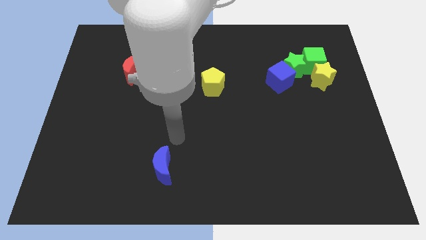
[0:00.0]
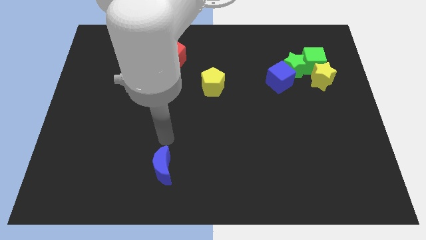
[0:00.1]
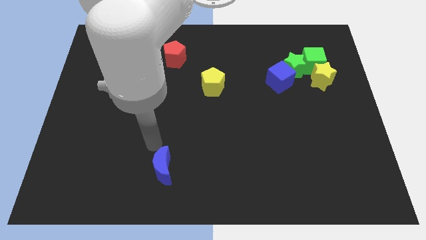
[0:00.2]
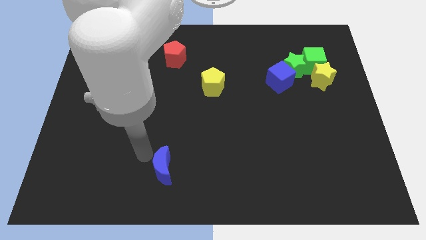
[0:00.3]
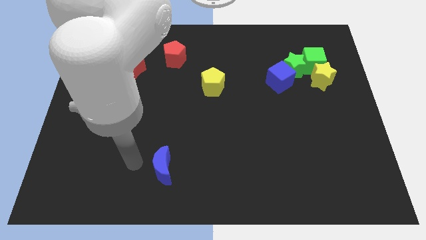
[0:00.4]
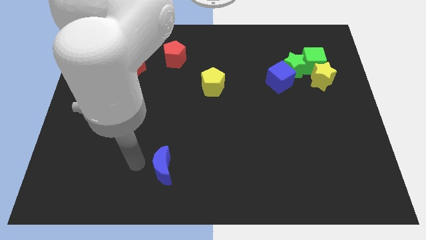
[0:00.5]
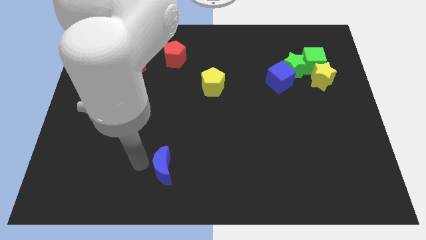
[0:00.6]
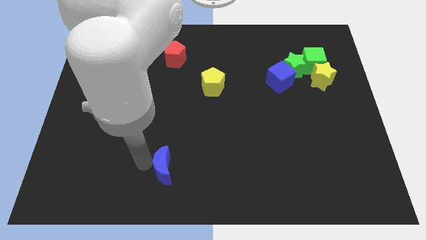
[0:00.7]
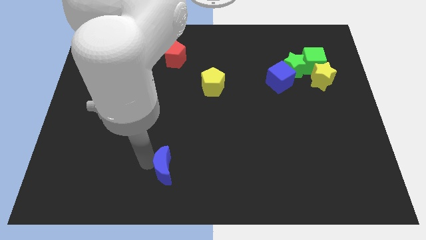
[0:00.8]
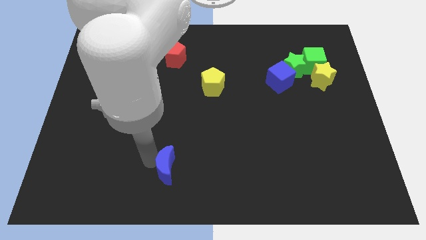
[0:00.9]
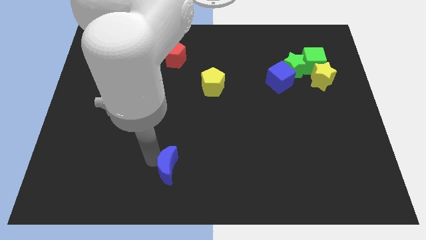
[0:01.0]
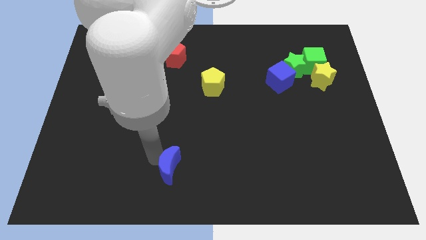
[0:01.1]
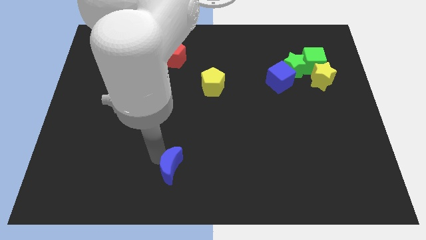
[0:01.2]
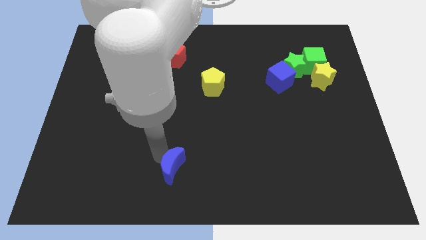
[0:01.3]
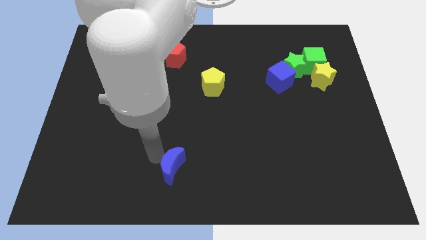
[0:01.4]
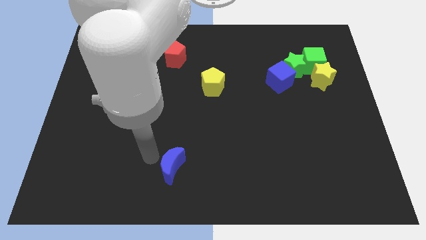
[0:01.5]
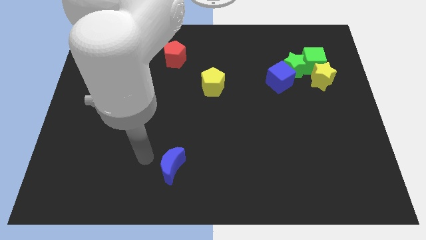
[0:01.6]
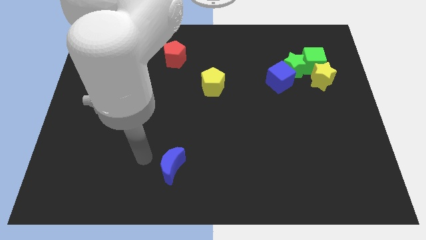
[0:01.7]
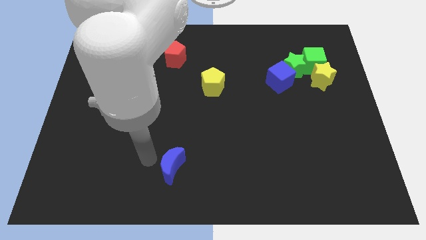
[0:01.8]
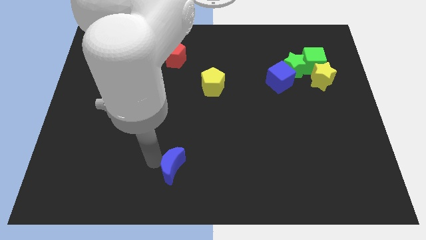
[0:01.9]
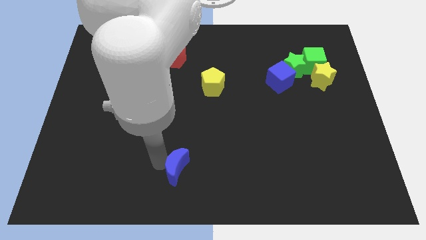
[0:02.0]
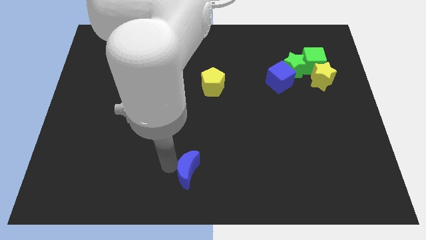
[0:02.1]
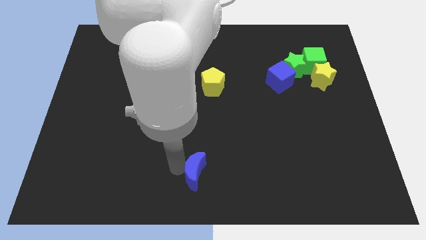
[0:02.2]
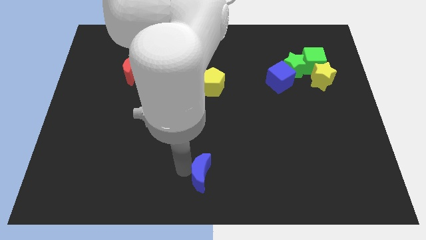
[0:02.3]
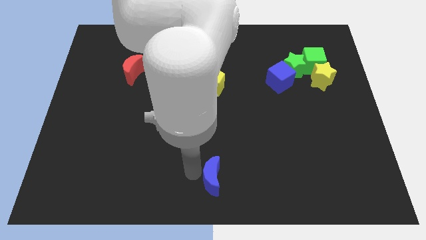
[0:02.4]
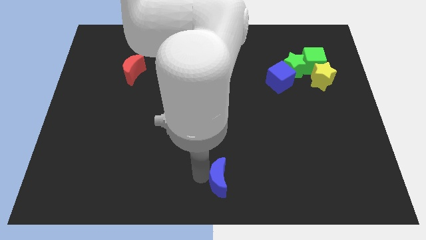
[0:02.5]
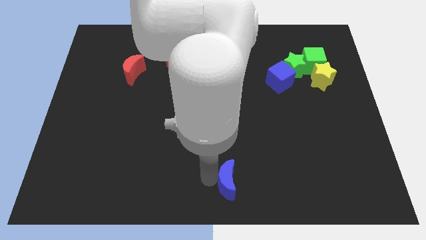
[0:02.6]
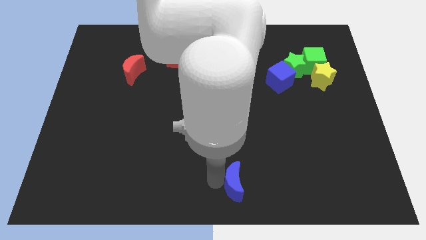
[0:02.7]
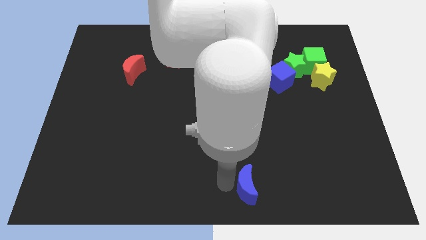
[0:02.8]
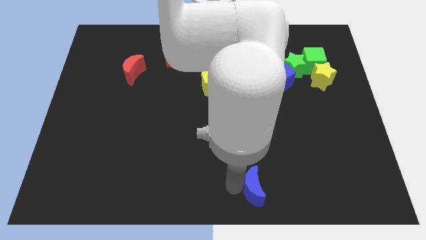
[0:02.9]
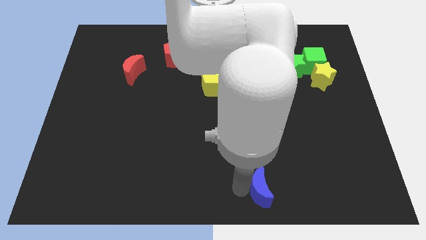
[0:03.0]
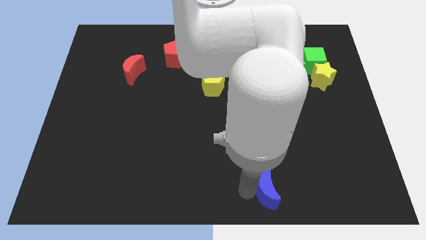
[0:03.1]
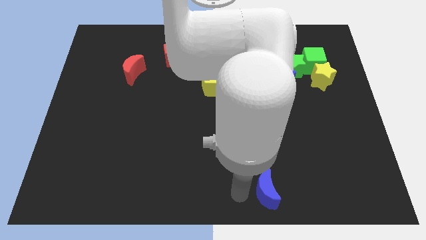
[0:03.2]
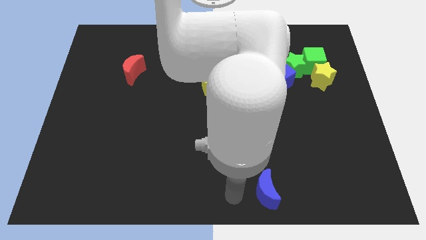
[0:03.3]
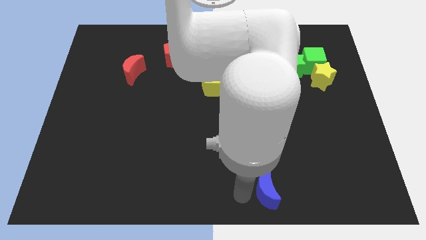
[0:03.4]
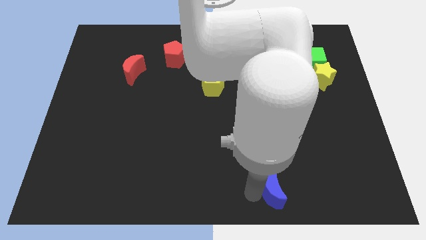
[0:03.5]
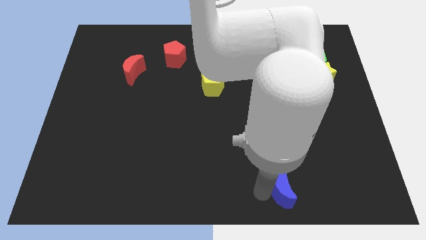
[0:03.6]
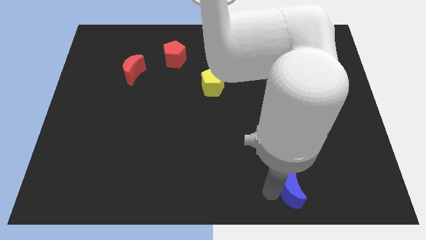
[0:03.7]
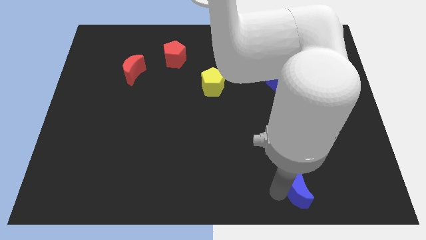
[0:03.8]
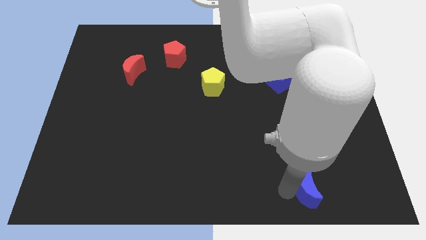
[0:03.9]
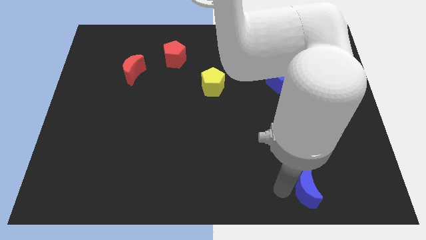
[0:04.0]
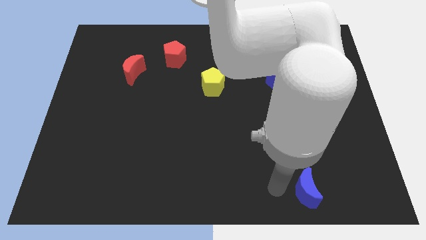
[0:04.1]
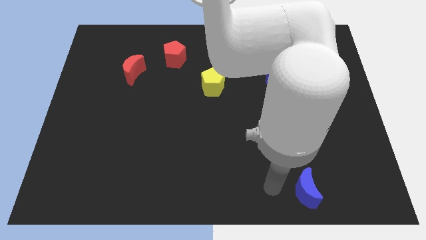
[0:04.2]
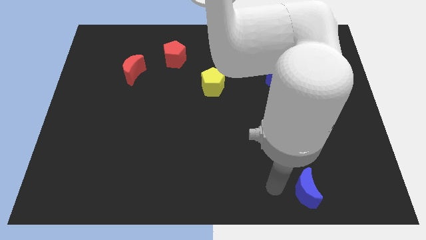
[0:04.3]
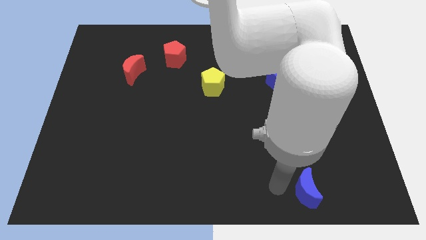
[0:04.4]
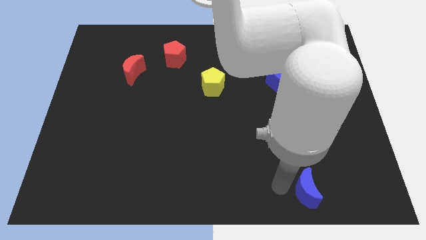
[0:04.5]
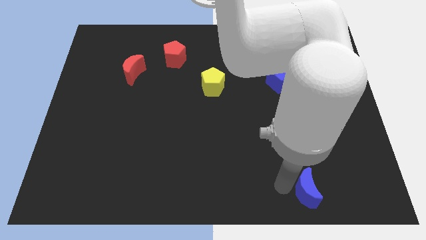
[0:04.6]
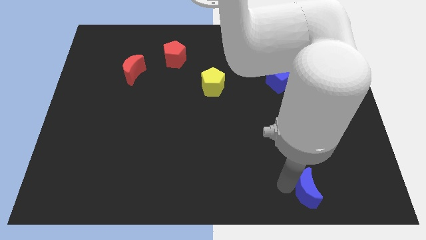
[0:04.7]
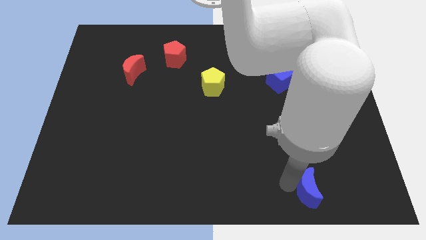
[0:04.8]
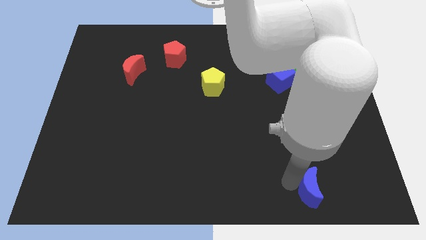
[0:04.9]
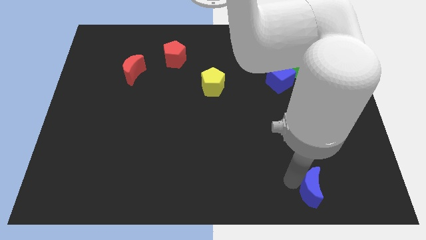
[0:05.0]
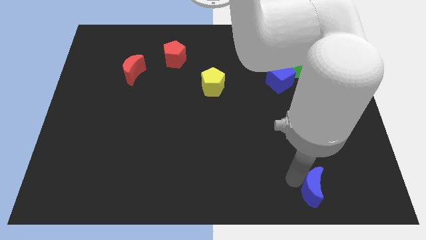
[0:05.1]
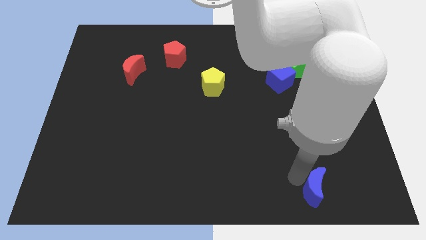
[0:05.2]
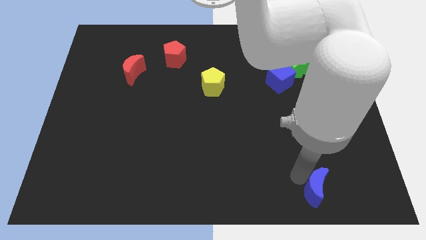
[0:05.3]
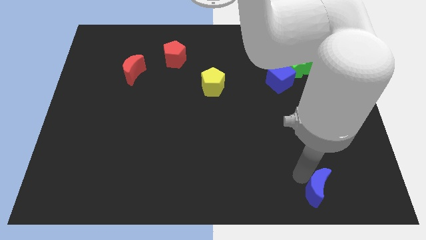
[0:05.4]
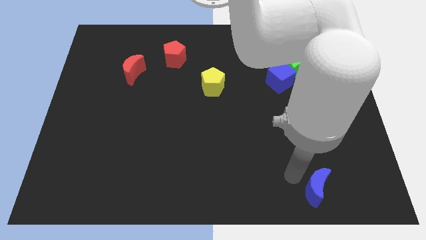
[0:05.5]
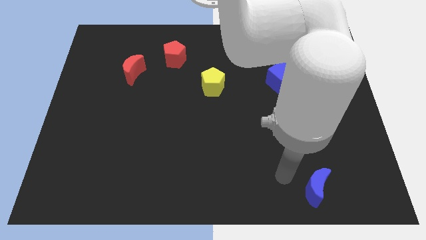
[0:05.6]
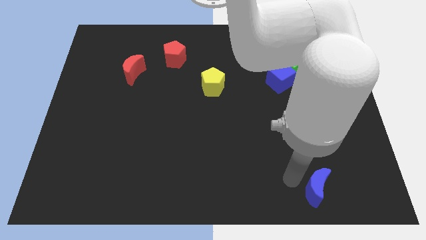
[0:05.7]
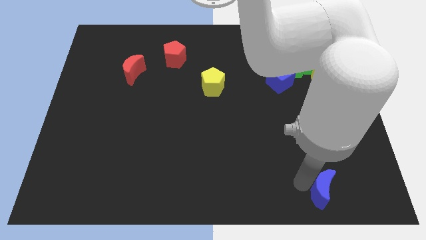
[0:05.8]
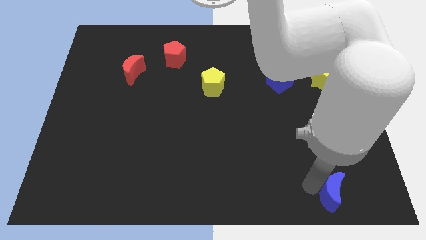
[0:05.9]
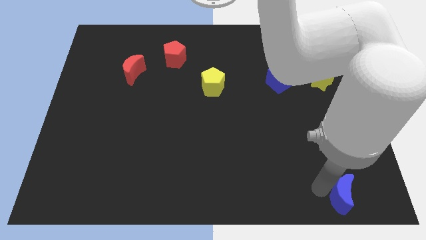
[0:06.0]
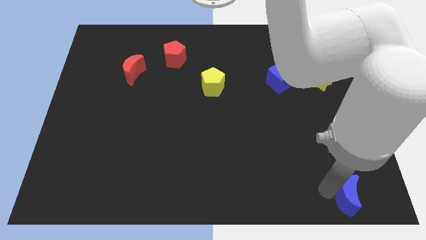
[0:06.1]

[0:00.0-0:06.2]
move the blue moon to the bottom right of the board
